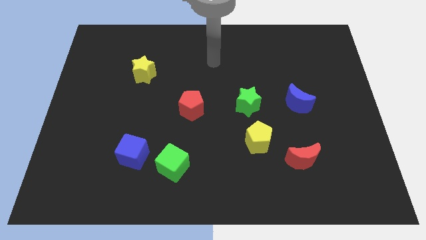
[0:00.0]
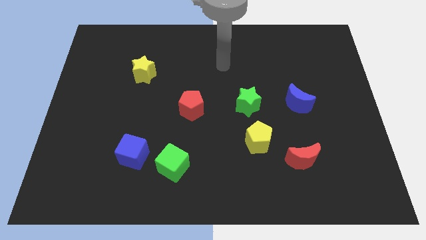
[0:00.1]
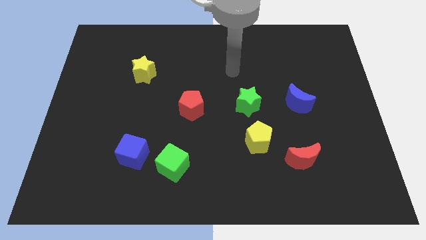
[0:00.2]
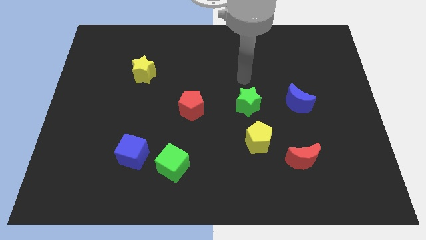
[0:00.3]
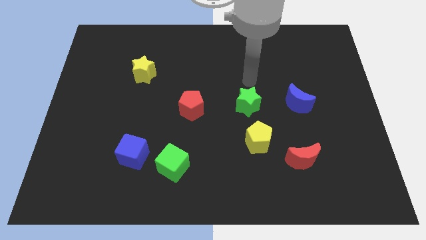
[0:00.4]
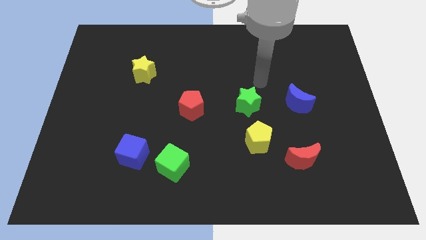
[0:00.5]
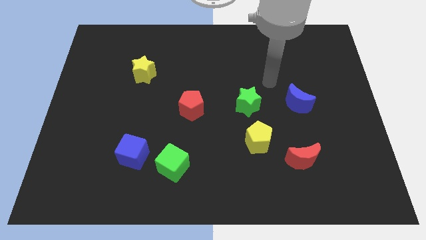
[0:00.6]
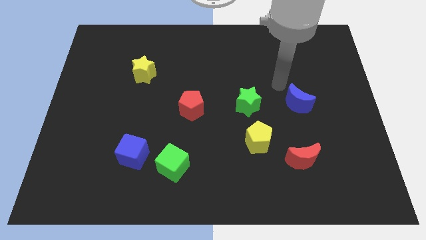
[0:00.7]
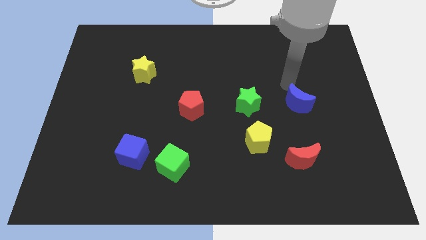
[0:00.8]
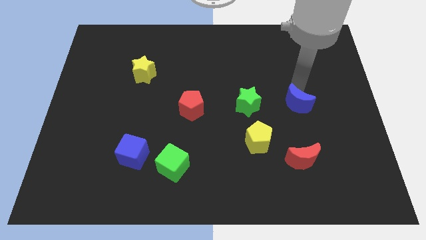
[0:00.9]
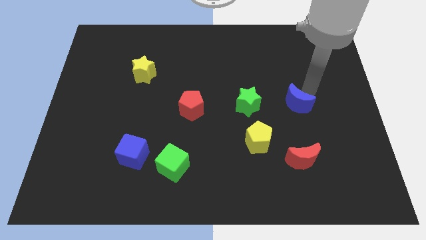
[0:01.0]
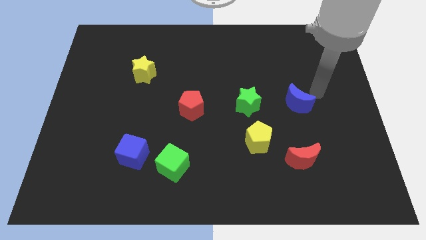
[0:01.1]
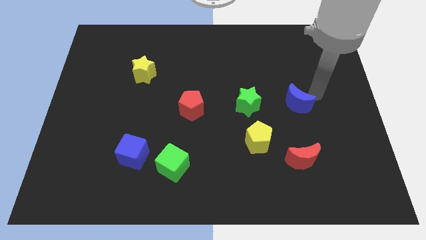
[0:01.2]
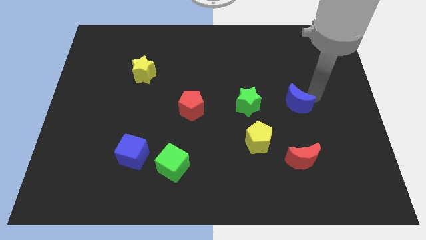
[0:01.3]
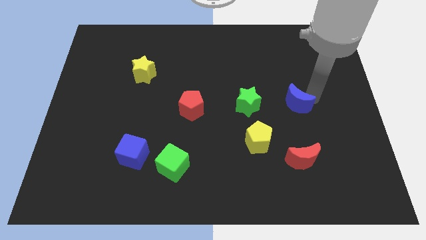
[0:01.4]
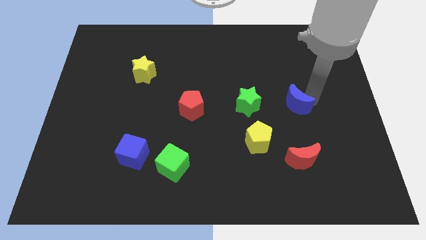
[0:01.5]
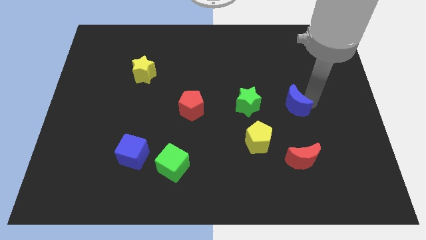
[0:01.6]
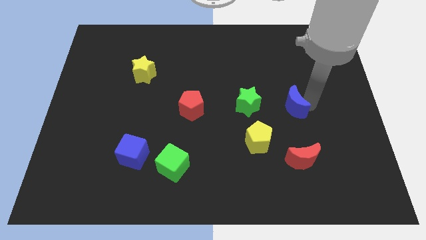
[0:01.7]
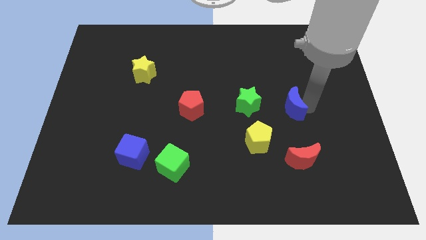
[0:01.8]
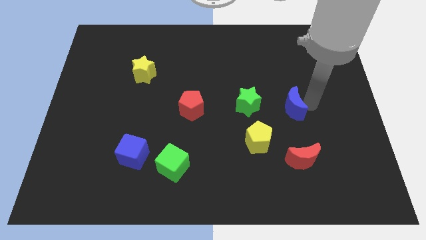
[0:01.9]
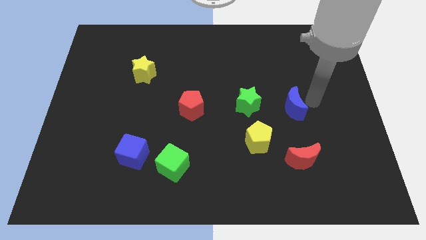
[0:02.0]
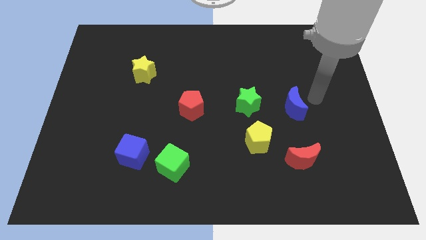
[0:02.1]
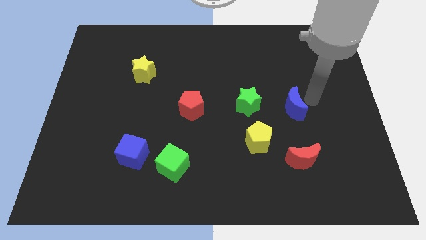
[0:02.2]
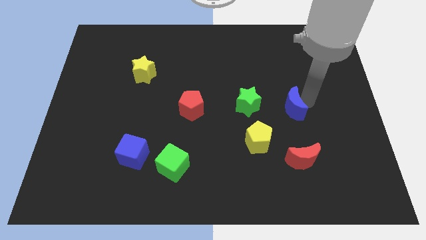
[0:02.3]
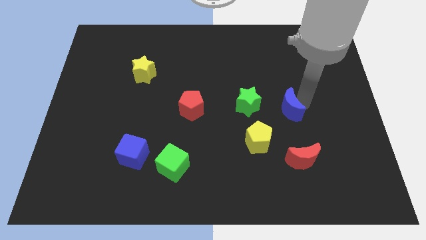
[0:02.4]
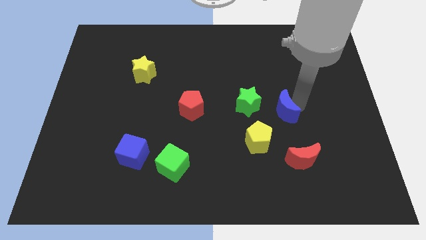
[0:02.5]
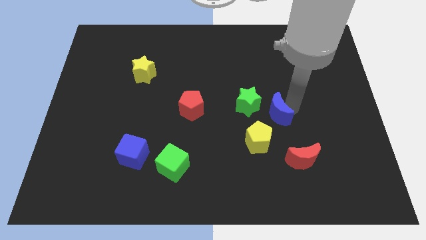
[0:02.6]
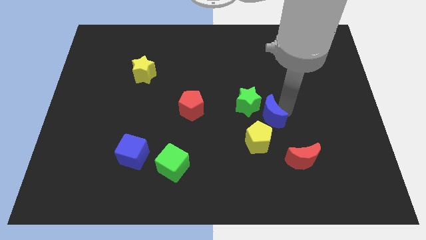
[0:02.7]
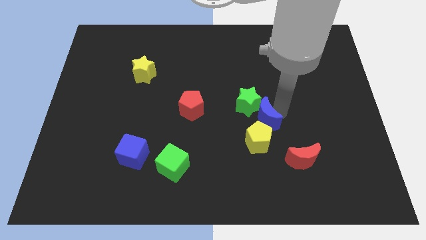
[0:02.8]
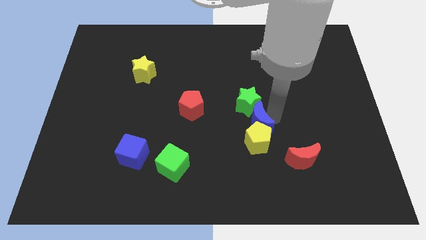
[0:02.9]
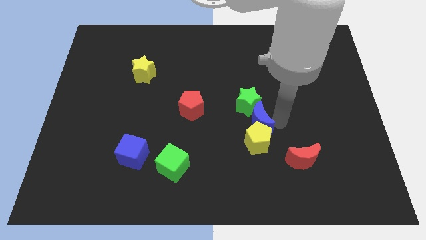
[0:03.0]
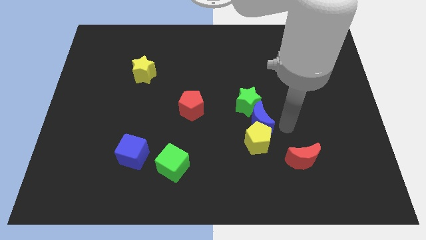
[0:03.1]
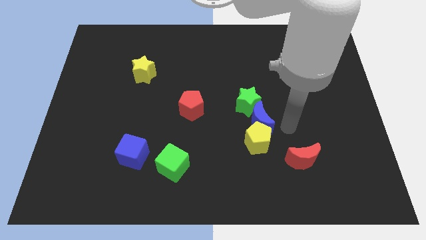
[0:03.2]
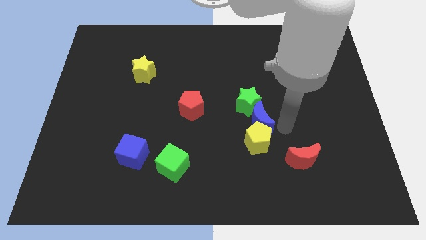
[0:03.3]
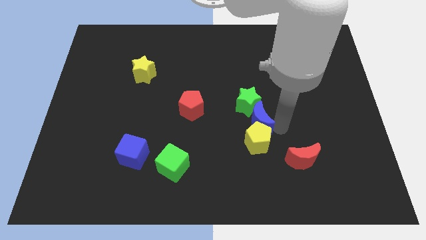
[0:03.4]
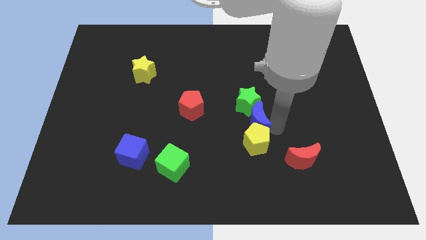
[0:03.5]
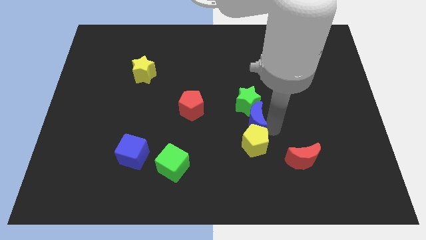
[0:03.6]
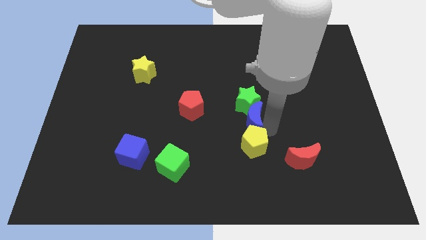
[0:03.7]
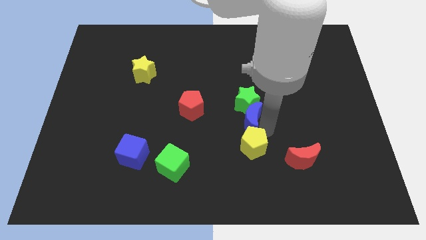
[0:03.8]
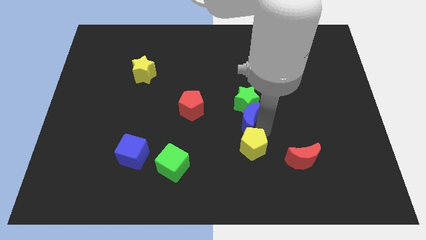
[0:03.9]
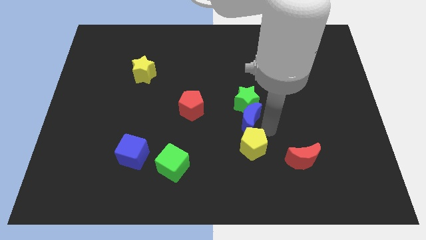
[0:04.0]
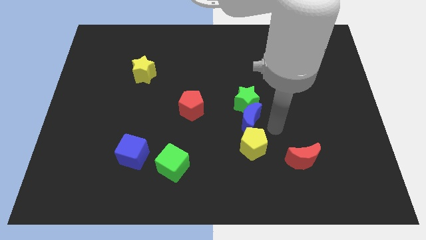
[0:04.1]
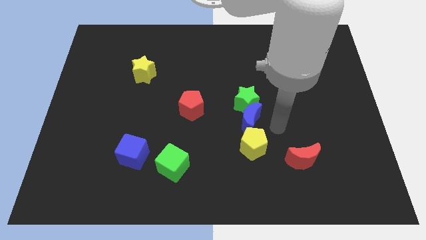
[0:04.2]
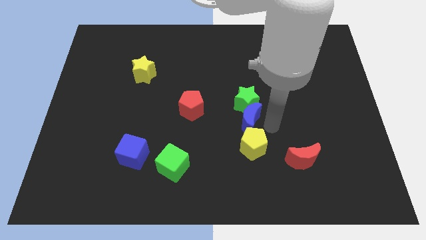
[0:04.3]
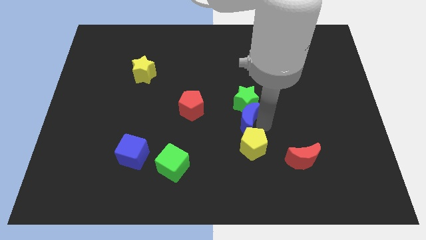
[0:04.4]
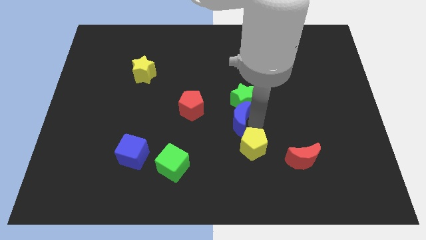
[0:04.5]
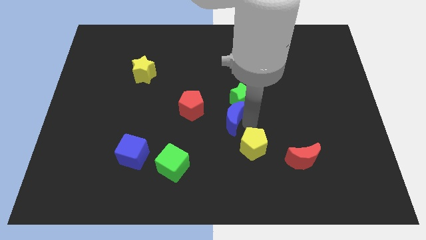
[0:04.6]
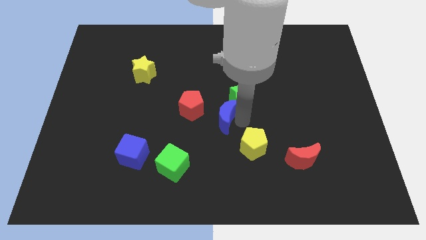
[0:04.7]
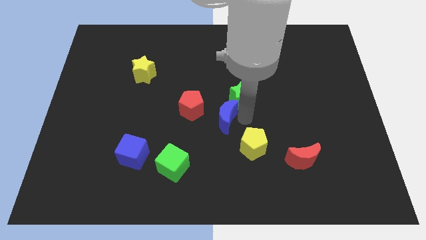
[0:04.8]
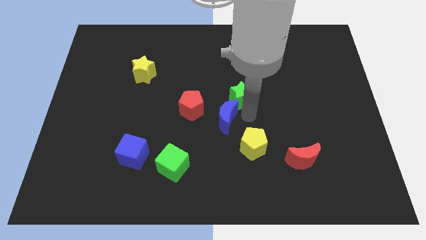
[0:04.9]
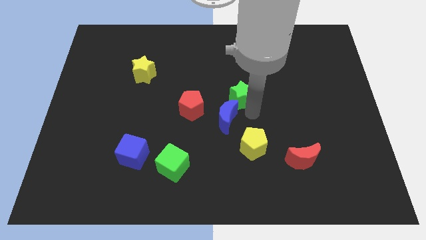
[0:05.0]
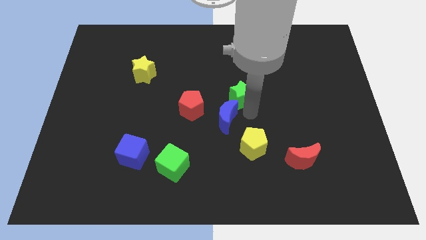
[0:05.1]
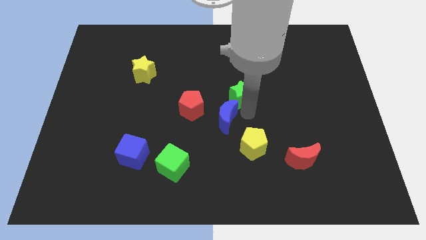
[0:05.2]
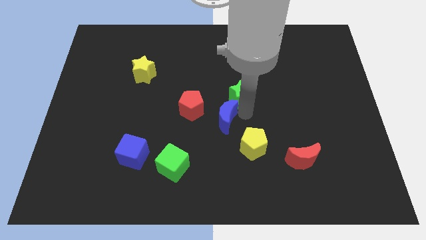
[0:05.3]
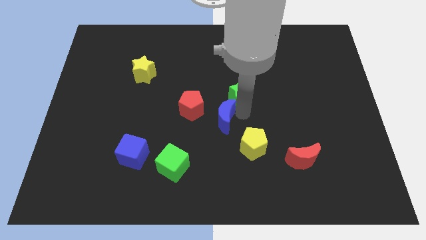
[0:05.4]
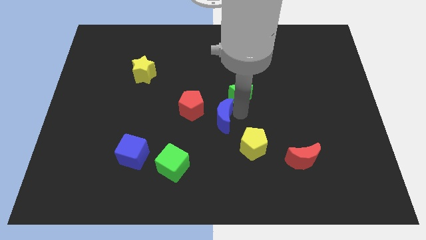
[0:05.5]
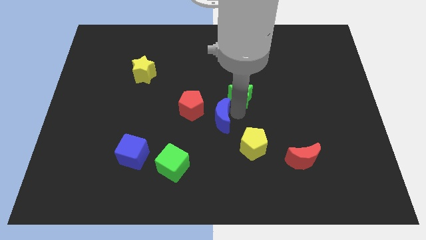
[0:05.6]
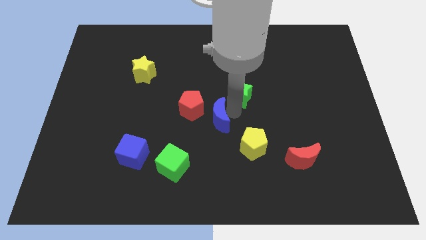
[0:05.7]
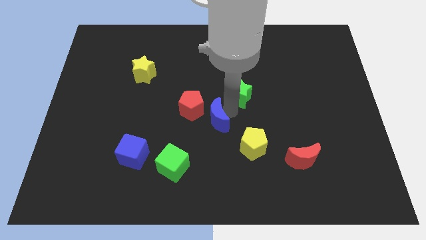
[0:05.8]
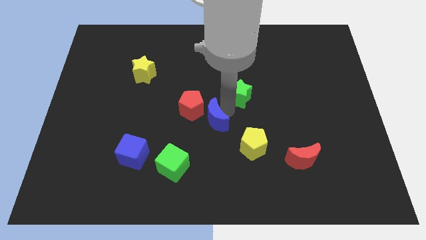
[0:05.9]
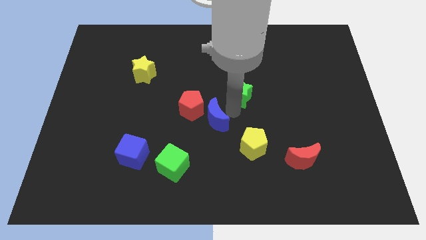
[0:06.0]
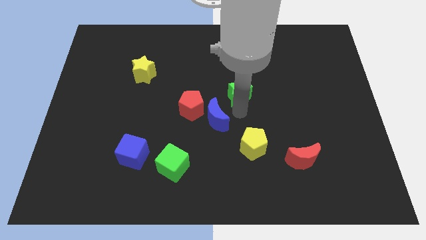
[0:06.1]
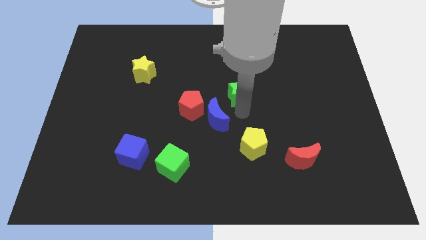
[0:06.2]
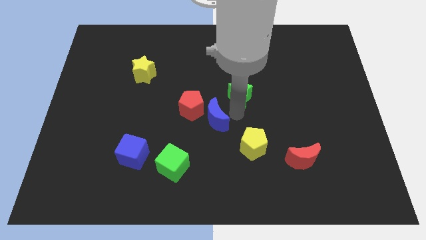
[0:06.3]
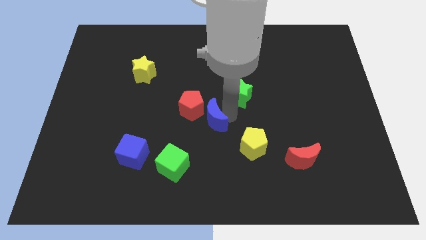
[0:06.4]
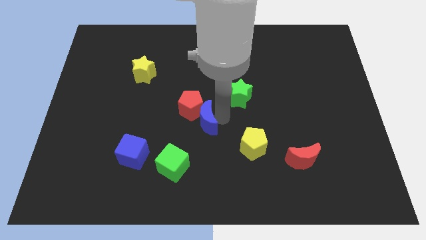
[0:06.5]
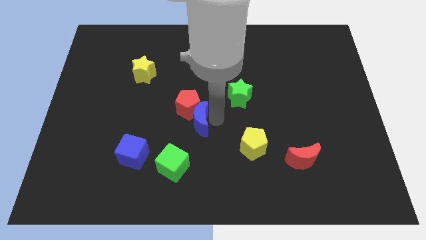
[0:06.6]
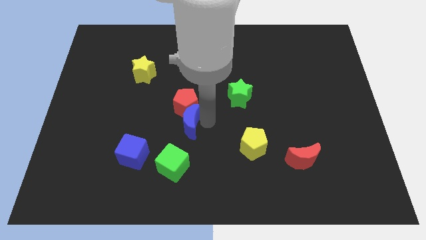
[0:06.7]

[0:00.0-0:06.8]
put the blue moon to the bottom left side of the red pentagon

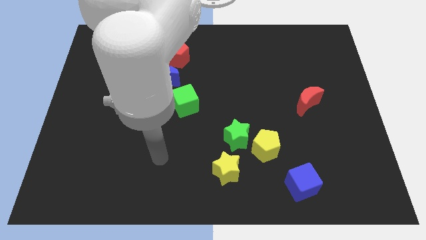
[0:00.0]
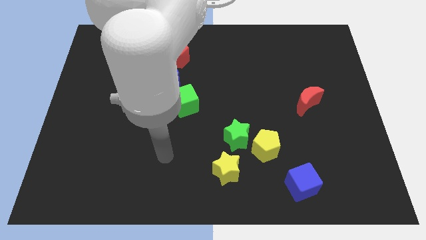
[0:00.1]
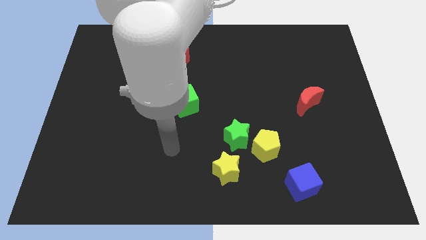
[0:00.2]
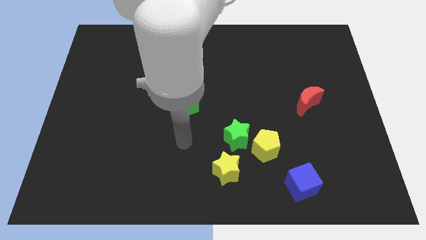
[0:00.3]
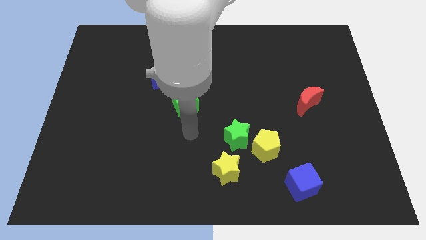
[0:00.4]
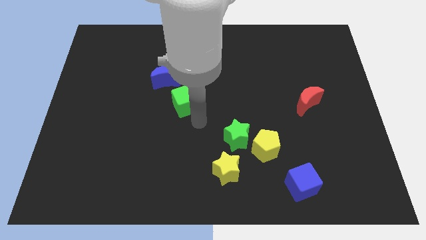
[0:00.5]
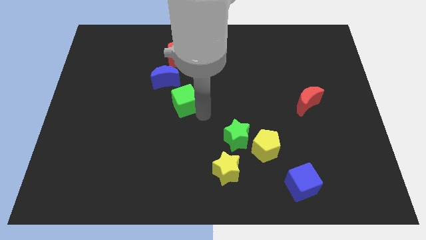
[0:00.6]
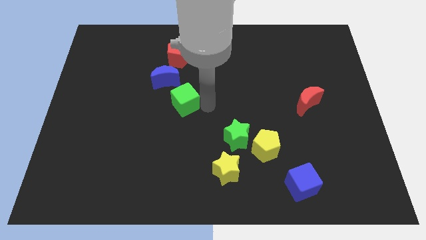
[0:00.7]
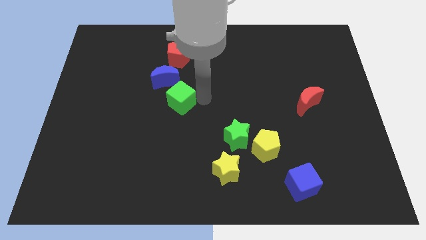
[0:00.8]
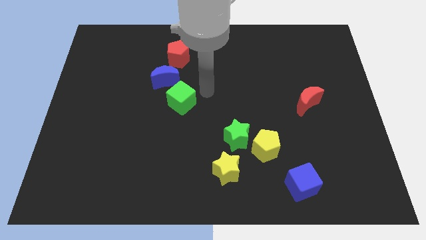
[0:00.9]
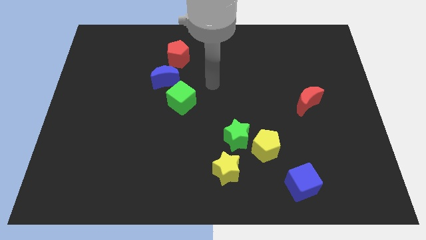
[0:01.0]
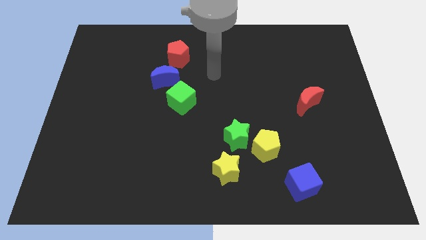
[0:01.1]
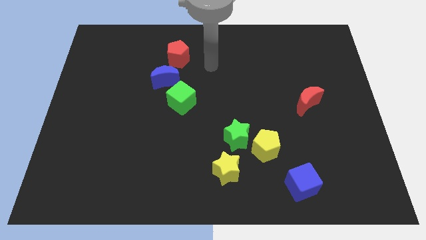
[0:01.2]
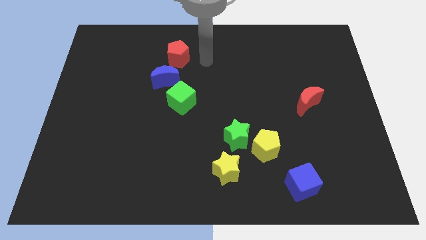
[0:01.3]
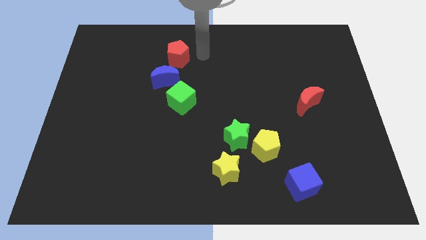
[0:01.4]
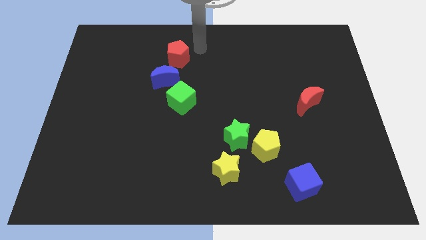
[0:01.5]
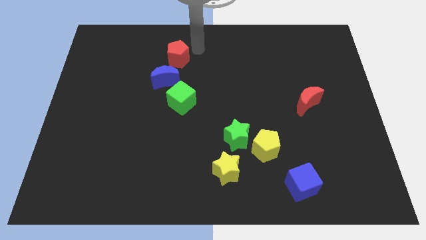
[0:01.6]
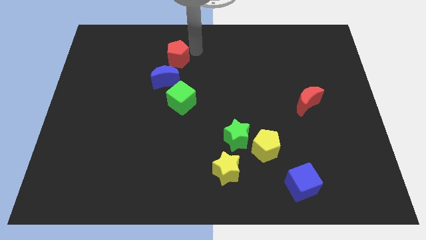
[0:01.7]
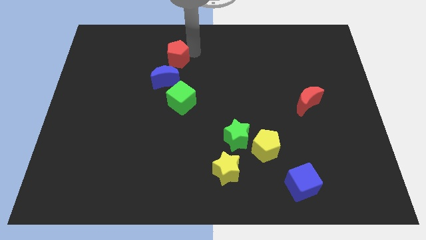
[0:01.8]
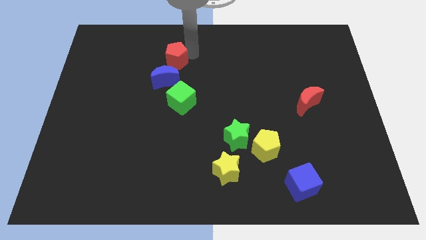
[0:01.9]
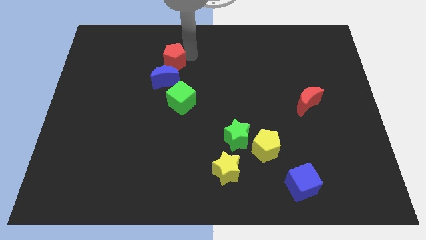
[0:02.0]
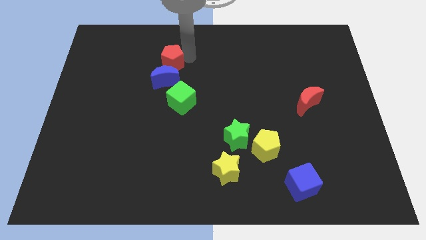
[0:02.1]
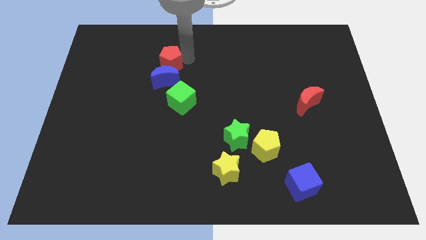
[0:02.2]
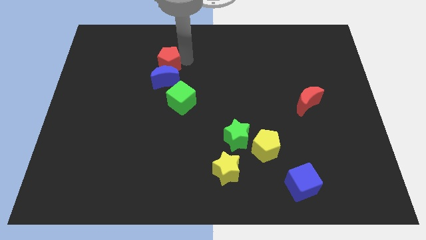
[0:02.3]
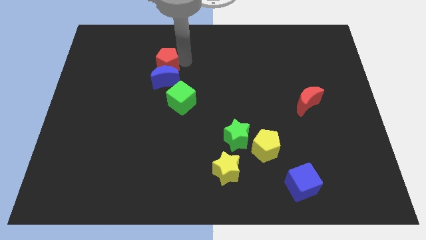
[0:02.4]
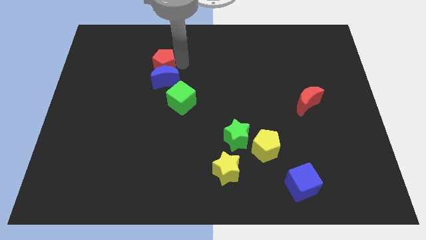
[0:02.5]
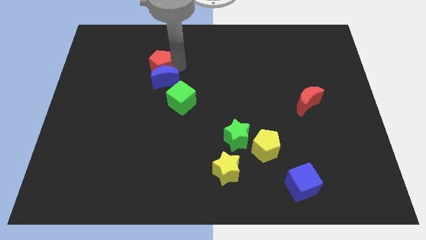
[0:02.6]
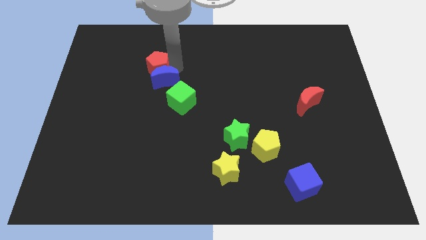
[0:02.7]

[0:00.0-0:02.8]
push the red pentagon to the left side of the blue moon
